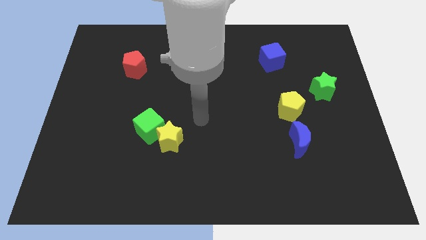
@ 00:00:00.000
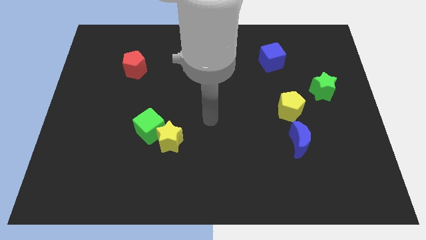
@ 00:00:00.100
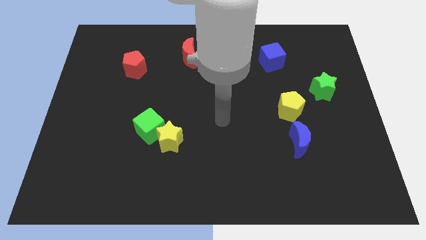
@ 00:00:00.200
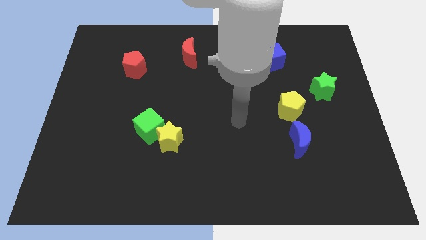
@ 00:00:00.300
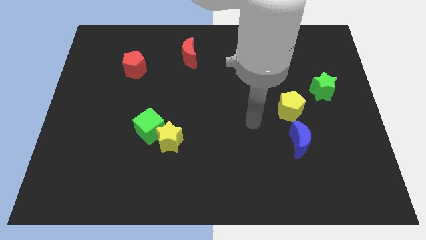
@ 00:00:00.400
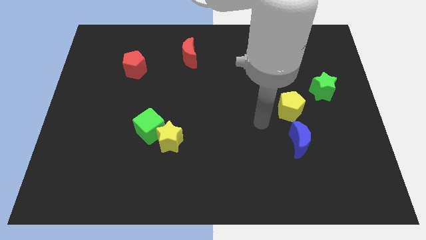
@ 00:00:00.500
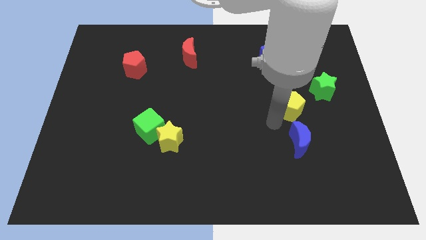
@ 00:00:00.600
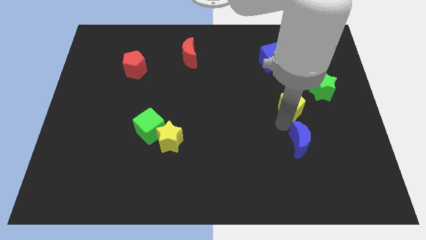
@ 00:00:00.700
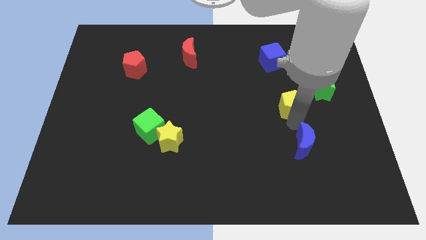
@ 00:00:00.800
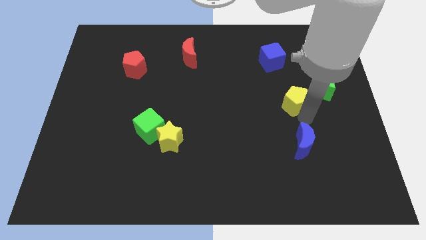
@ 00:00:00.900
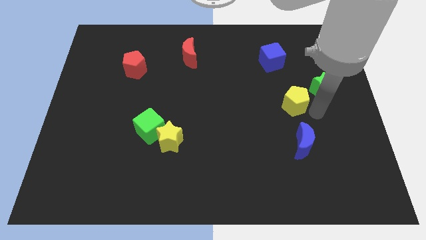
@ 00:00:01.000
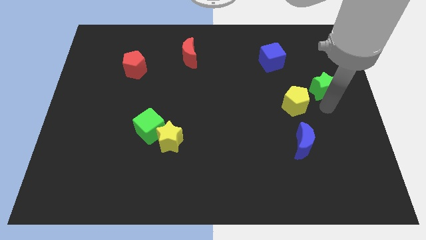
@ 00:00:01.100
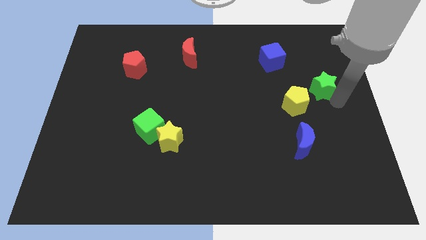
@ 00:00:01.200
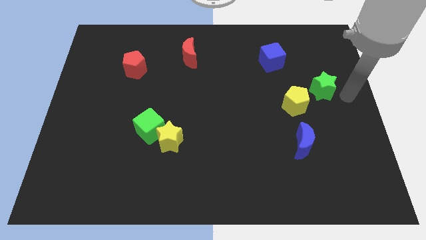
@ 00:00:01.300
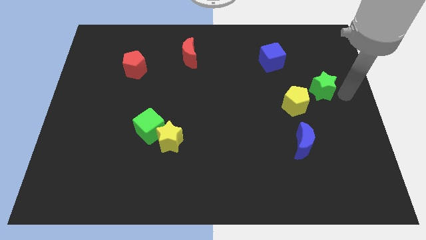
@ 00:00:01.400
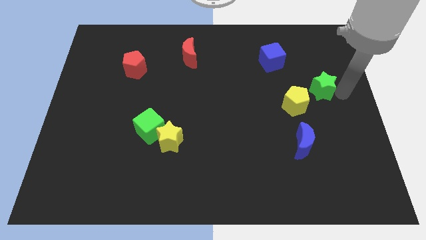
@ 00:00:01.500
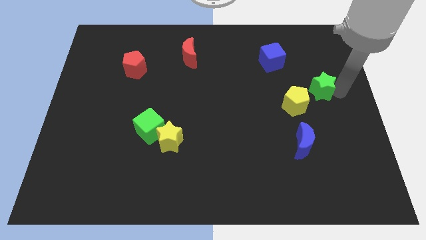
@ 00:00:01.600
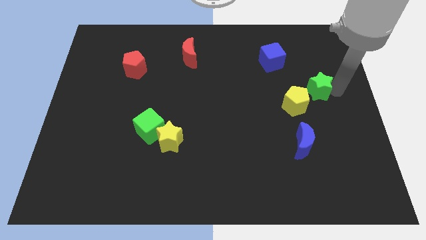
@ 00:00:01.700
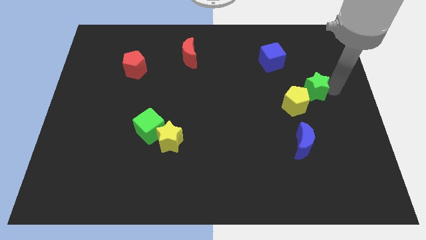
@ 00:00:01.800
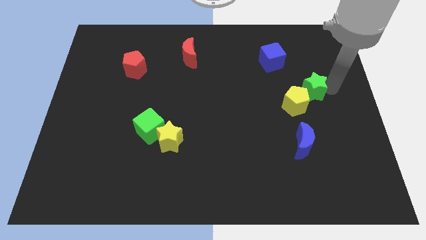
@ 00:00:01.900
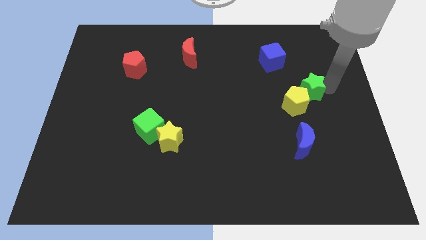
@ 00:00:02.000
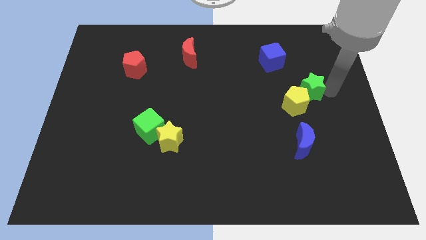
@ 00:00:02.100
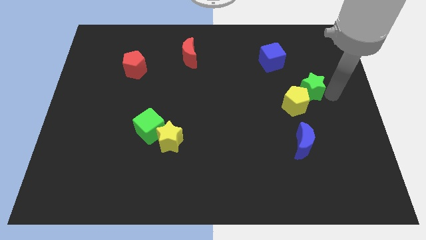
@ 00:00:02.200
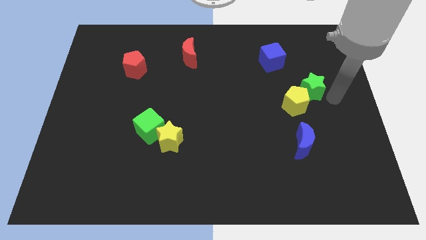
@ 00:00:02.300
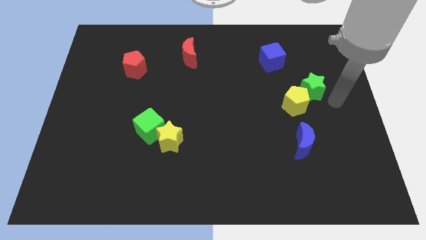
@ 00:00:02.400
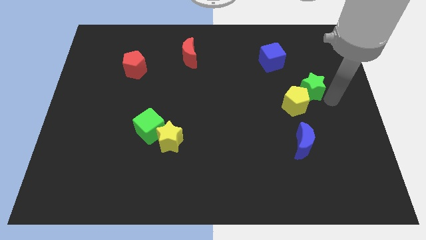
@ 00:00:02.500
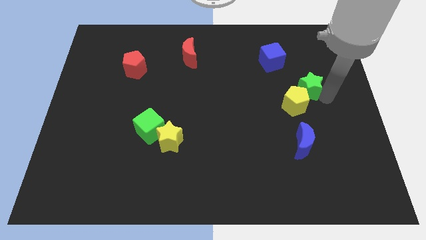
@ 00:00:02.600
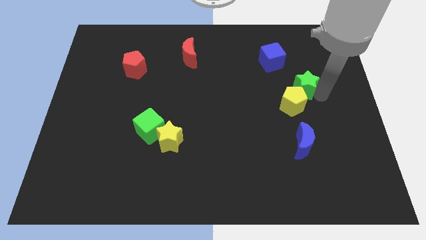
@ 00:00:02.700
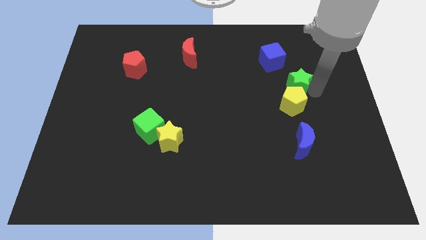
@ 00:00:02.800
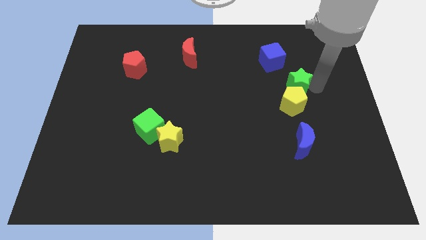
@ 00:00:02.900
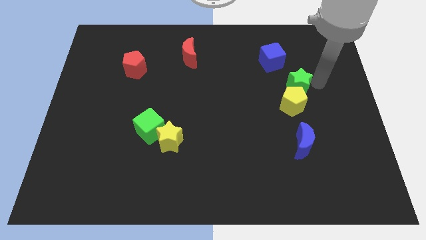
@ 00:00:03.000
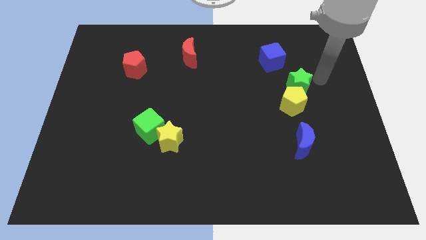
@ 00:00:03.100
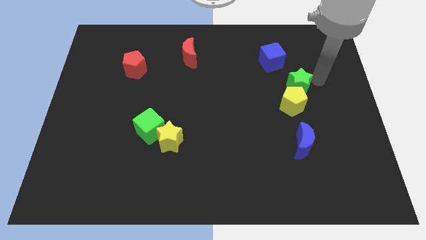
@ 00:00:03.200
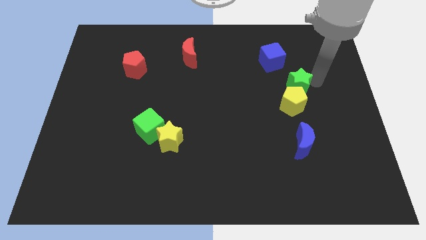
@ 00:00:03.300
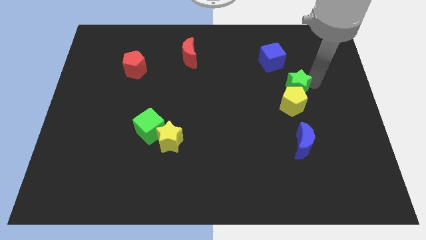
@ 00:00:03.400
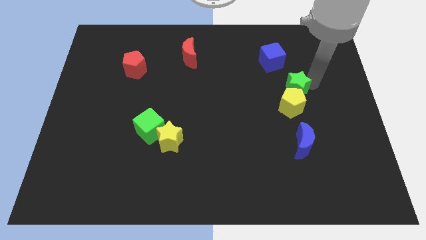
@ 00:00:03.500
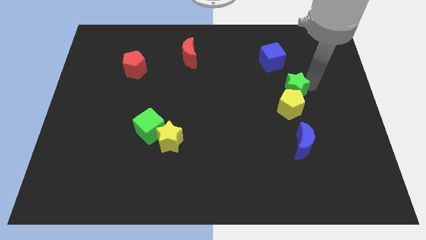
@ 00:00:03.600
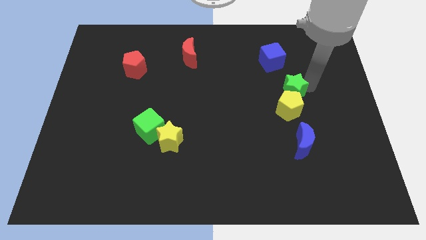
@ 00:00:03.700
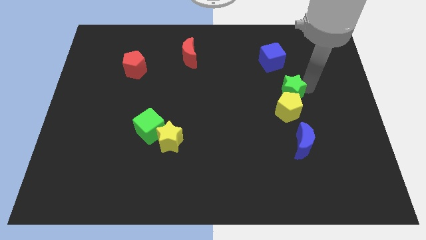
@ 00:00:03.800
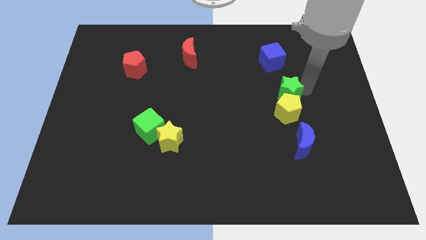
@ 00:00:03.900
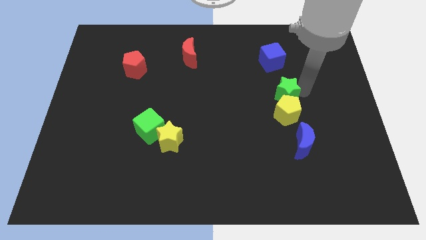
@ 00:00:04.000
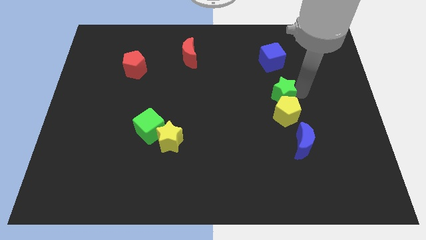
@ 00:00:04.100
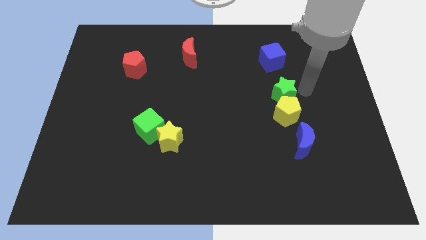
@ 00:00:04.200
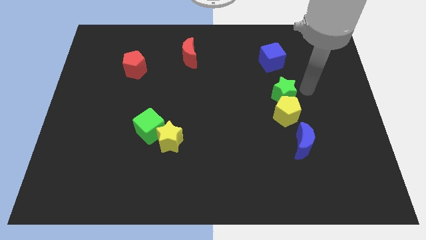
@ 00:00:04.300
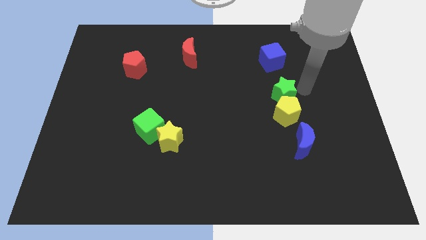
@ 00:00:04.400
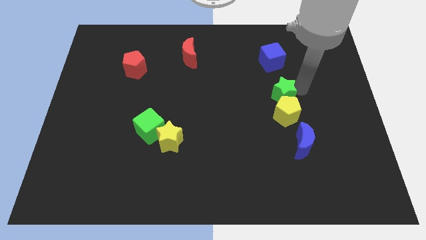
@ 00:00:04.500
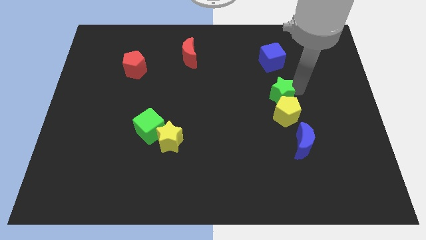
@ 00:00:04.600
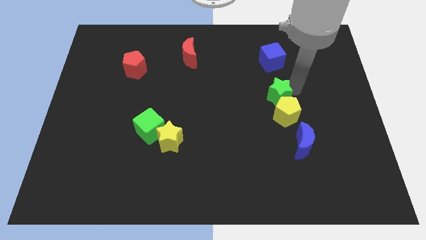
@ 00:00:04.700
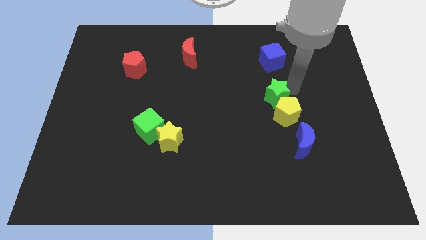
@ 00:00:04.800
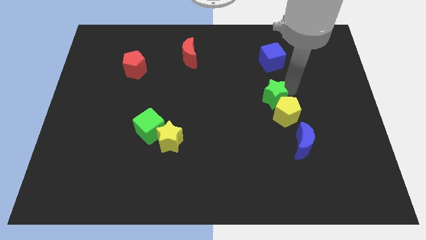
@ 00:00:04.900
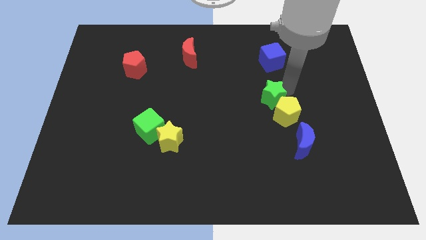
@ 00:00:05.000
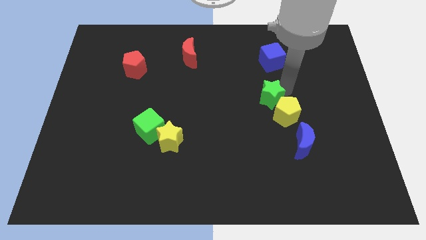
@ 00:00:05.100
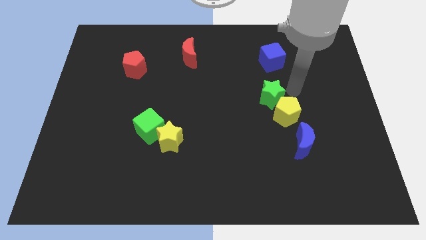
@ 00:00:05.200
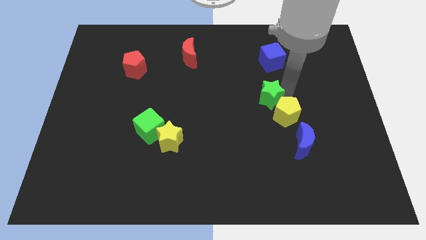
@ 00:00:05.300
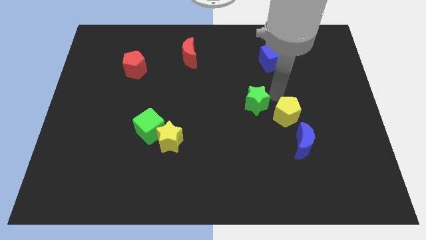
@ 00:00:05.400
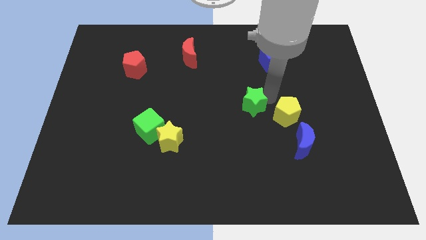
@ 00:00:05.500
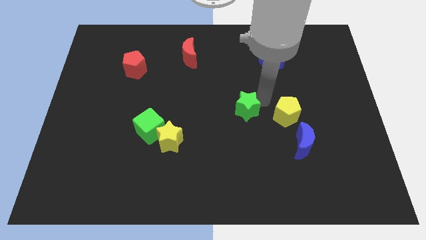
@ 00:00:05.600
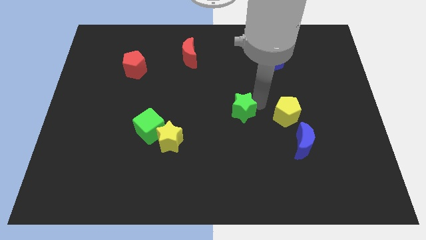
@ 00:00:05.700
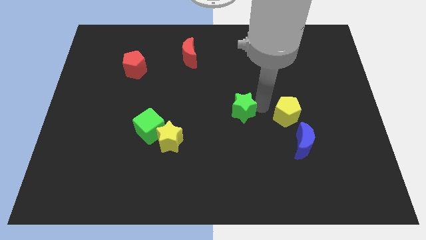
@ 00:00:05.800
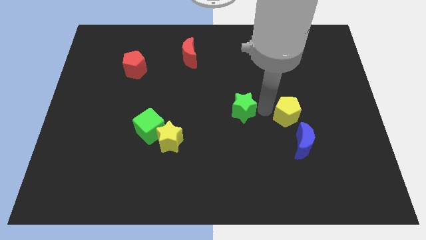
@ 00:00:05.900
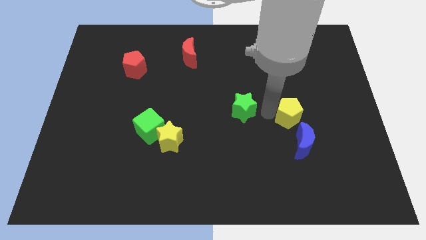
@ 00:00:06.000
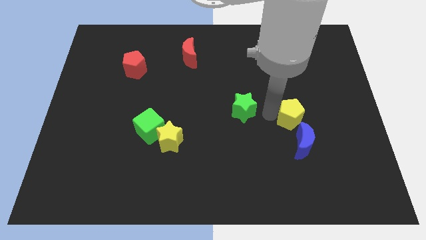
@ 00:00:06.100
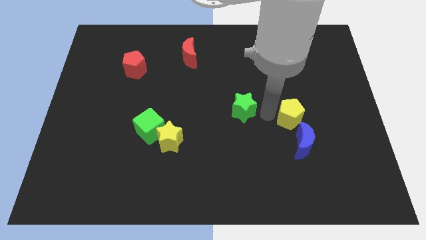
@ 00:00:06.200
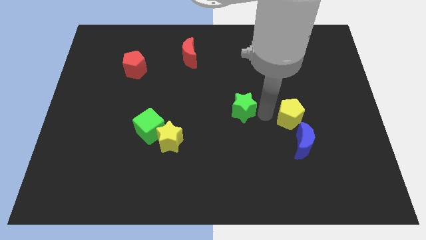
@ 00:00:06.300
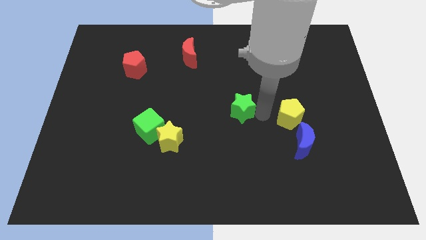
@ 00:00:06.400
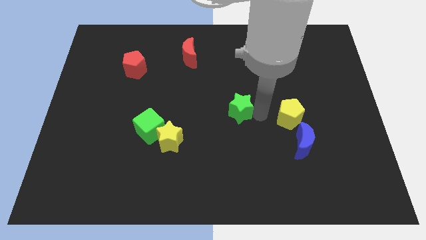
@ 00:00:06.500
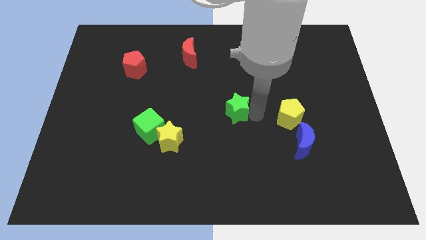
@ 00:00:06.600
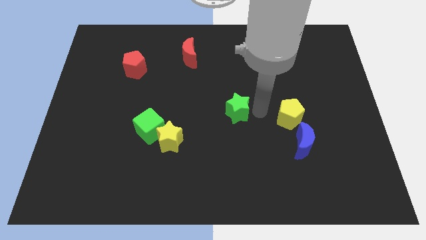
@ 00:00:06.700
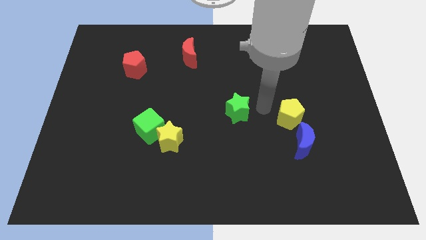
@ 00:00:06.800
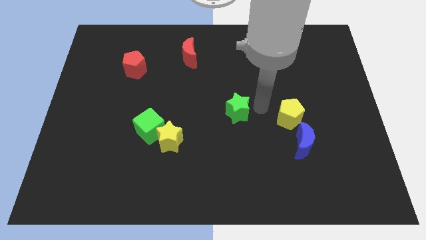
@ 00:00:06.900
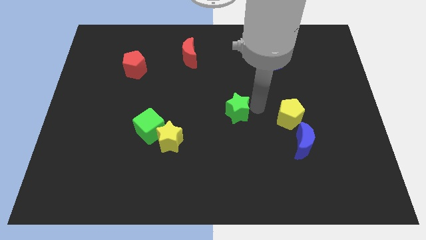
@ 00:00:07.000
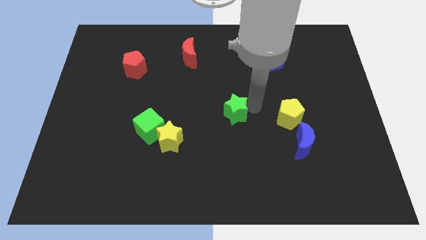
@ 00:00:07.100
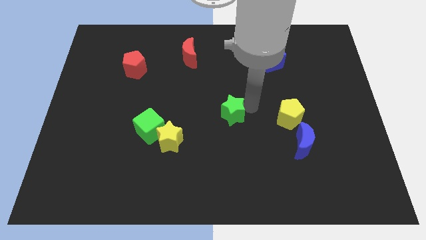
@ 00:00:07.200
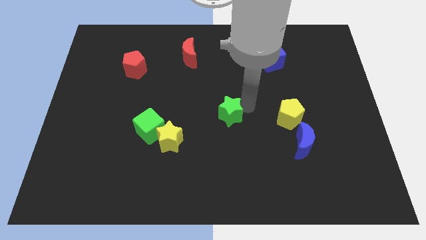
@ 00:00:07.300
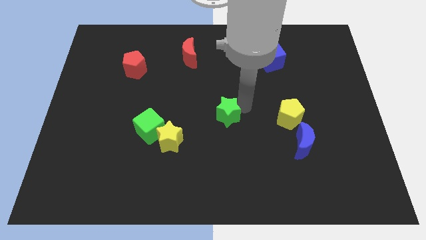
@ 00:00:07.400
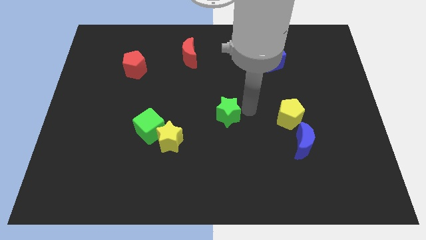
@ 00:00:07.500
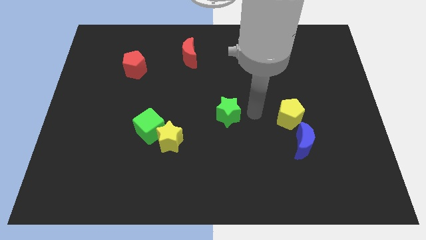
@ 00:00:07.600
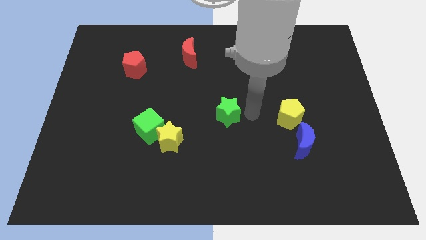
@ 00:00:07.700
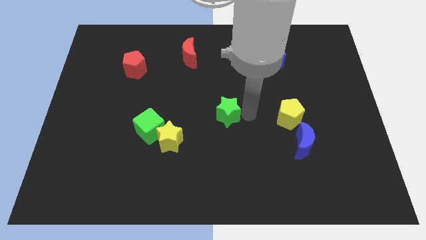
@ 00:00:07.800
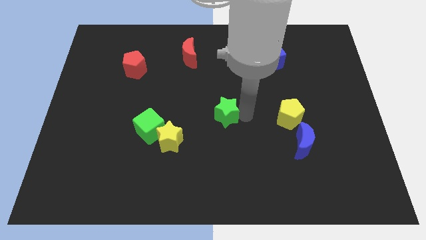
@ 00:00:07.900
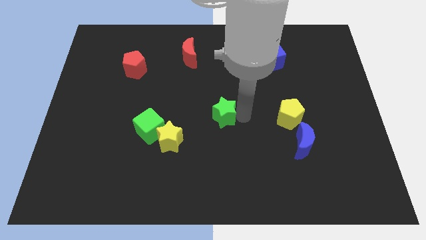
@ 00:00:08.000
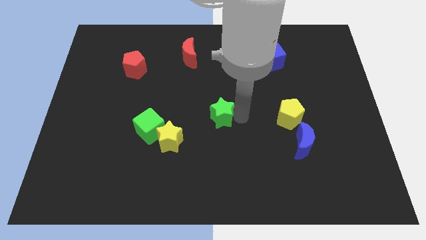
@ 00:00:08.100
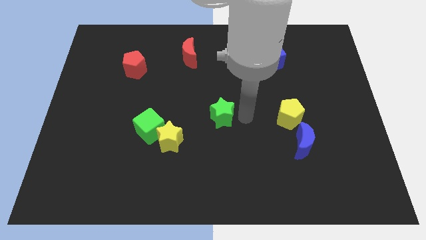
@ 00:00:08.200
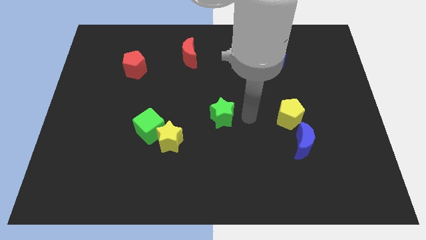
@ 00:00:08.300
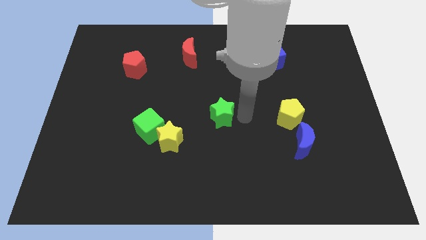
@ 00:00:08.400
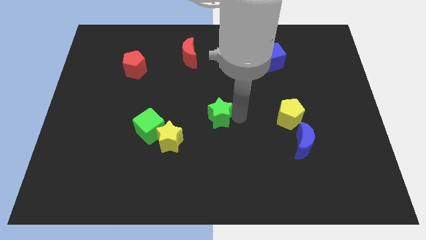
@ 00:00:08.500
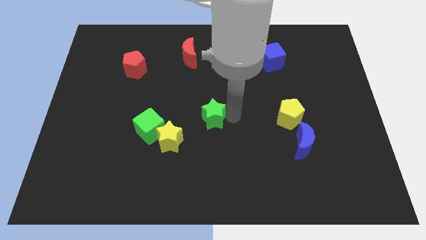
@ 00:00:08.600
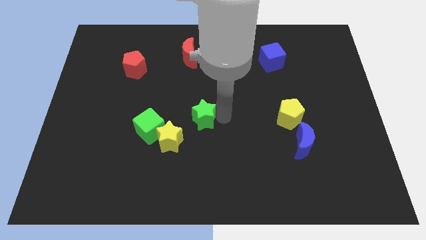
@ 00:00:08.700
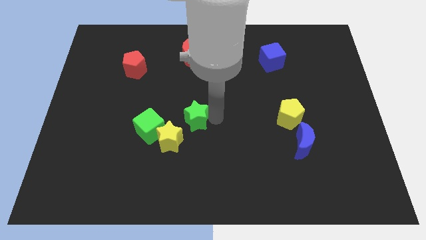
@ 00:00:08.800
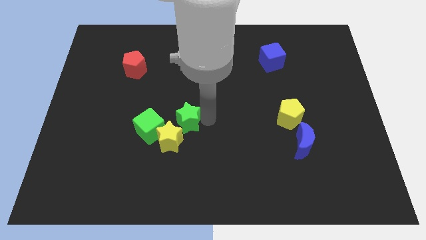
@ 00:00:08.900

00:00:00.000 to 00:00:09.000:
slide the green star to the top right side of the green cube
